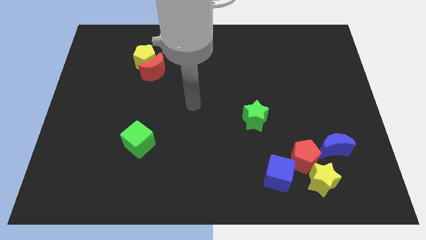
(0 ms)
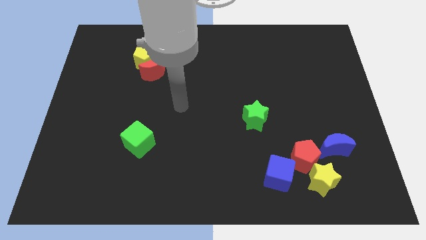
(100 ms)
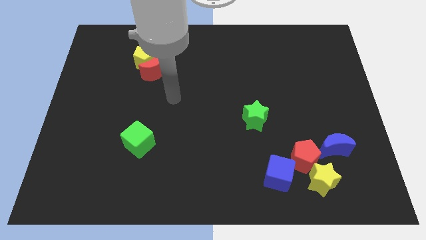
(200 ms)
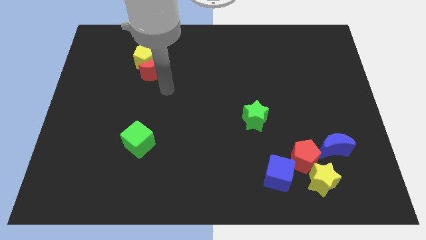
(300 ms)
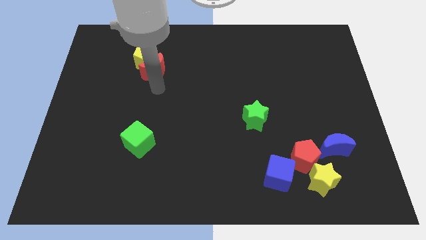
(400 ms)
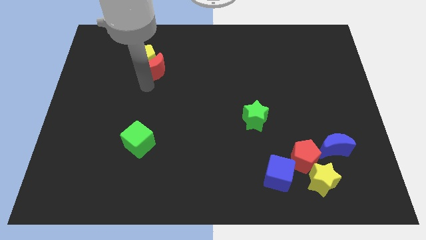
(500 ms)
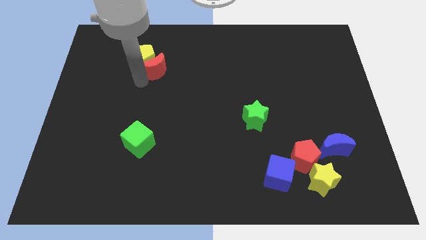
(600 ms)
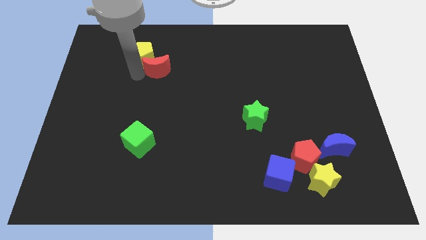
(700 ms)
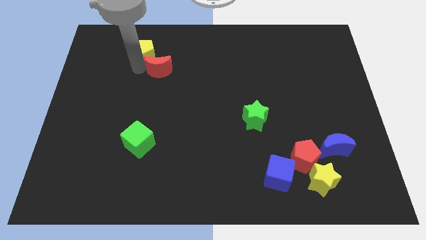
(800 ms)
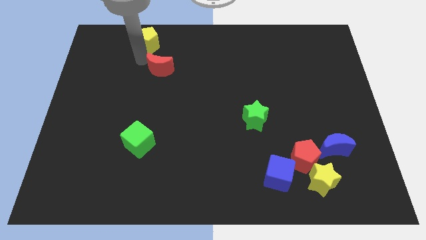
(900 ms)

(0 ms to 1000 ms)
move the red moon away from the yellow pentagon

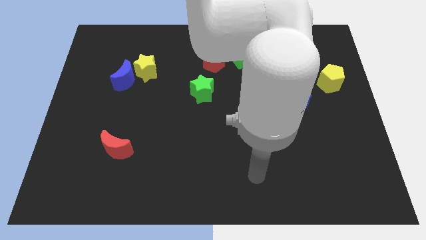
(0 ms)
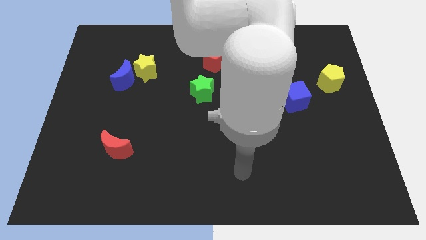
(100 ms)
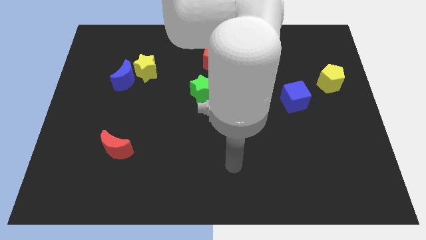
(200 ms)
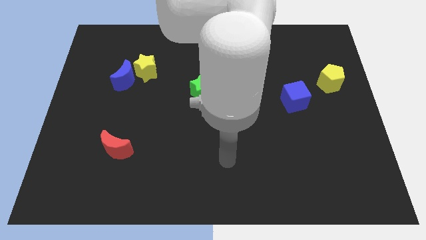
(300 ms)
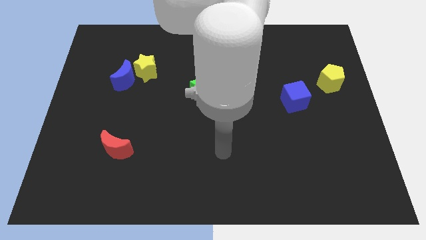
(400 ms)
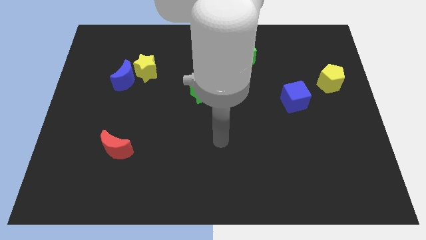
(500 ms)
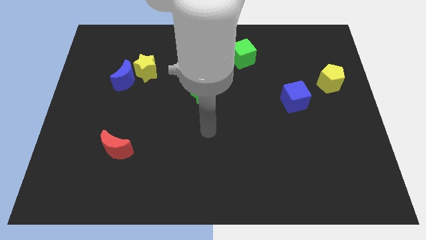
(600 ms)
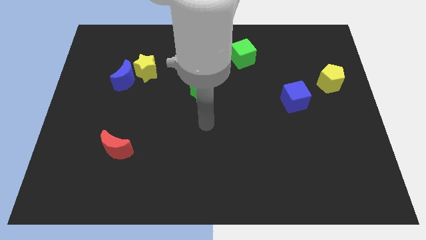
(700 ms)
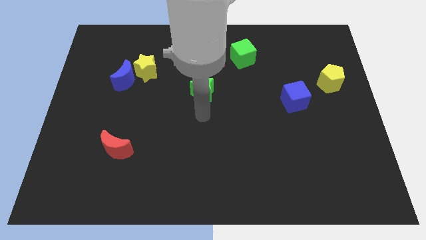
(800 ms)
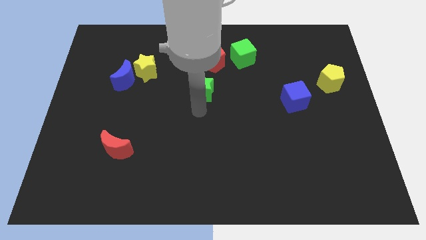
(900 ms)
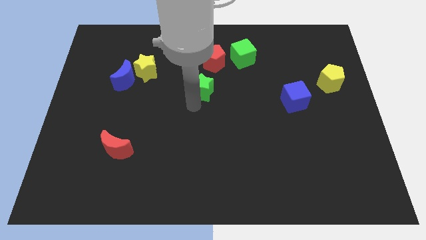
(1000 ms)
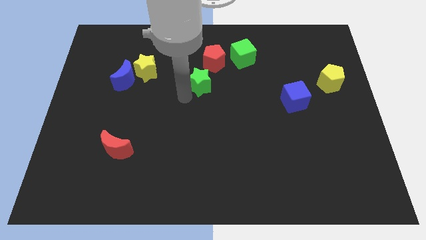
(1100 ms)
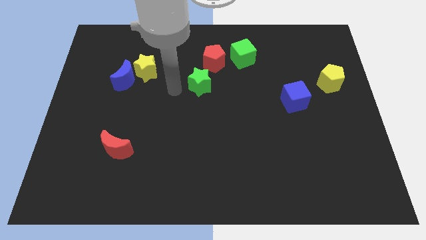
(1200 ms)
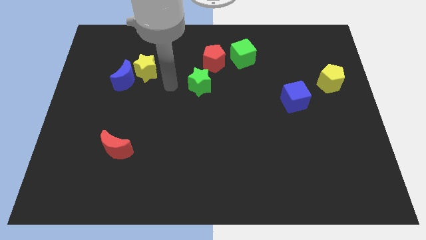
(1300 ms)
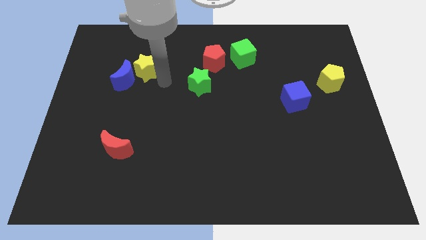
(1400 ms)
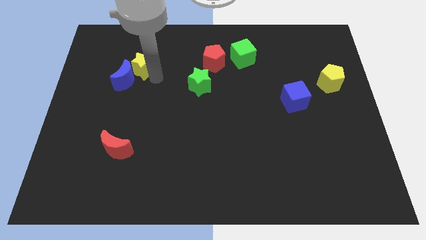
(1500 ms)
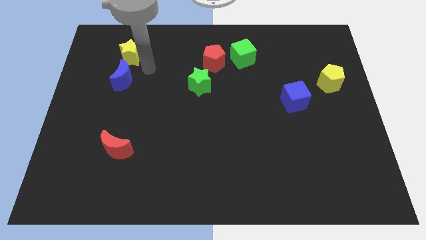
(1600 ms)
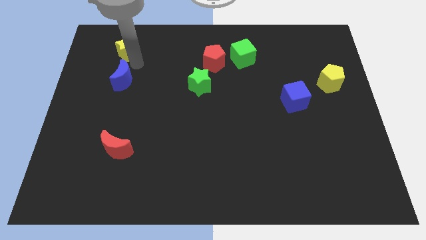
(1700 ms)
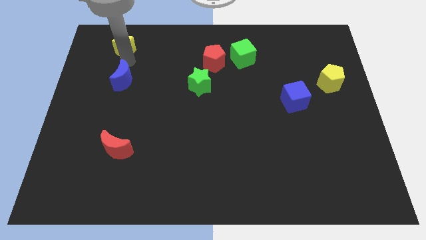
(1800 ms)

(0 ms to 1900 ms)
pull the blue moon apart from the yellow star

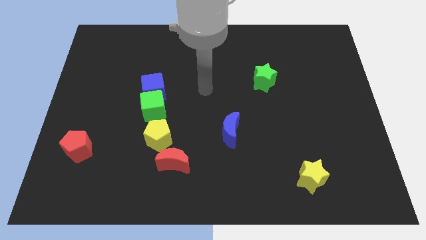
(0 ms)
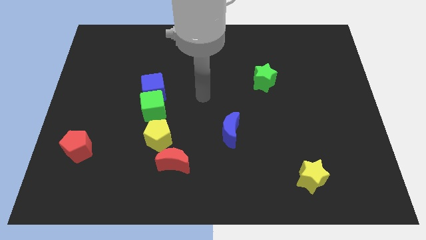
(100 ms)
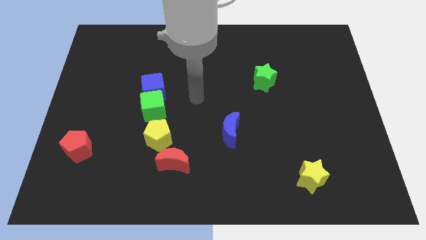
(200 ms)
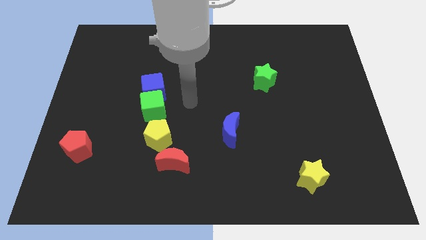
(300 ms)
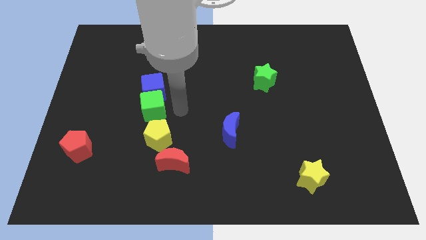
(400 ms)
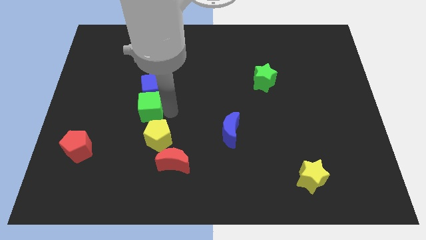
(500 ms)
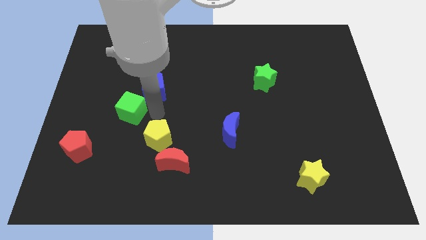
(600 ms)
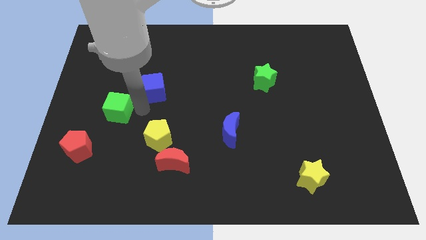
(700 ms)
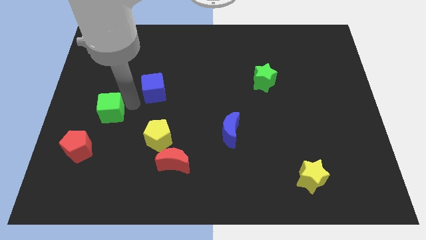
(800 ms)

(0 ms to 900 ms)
pull the blue cube apart from the green cube

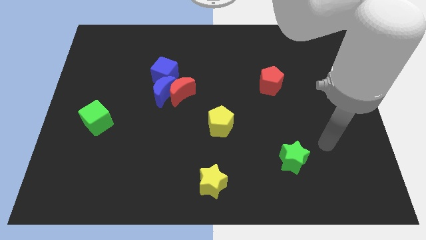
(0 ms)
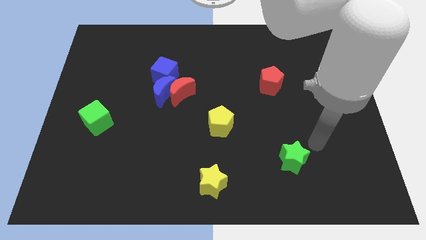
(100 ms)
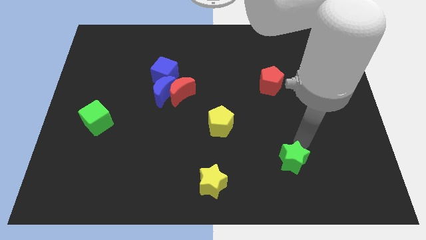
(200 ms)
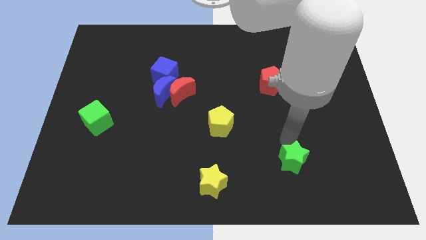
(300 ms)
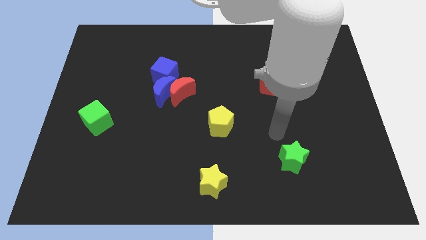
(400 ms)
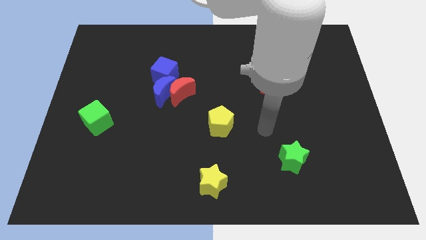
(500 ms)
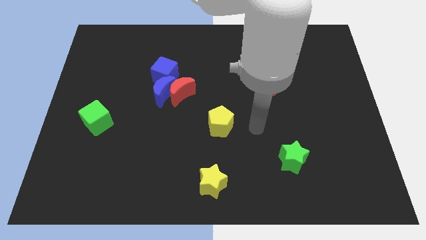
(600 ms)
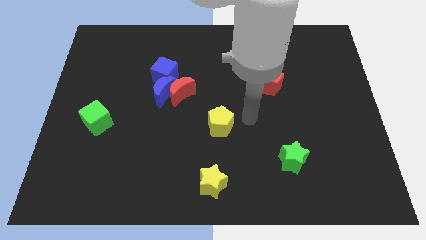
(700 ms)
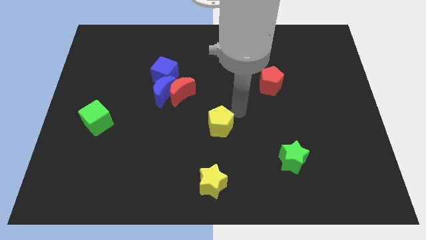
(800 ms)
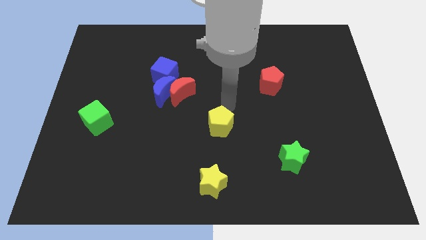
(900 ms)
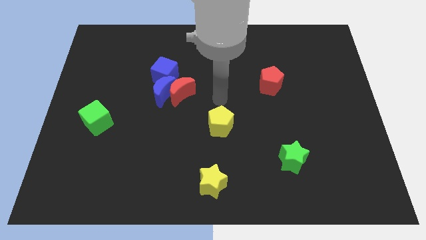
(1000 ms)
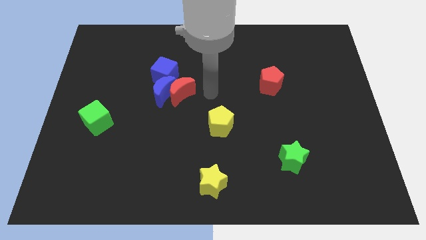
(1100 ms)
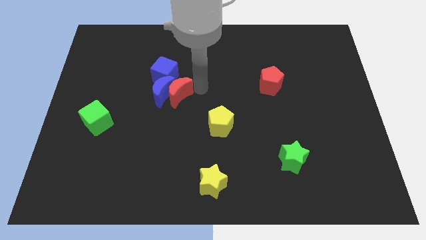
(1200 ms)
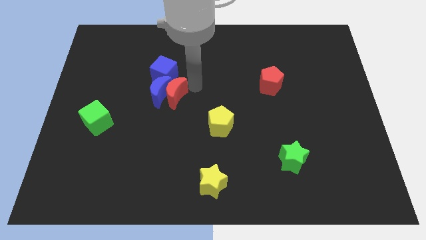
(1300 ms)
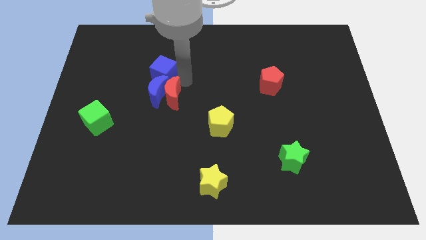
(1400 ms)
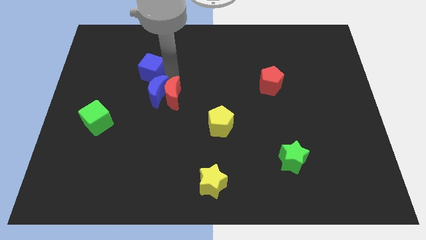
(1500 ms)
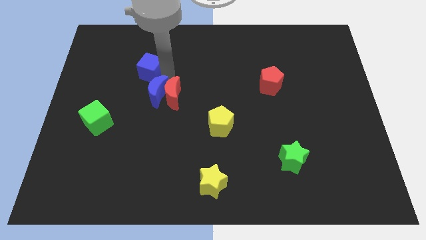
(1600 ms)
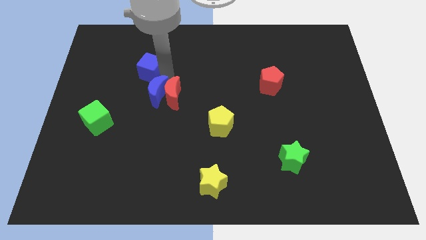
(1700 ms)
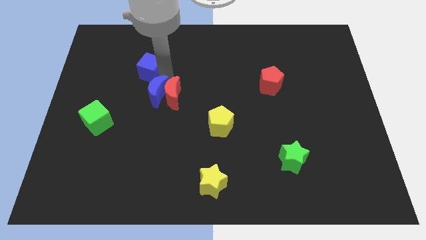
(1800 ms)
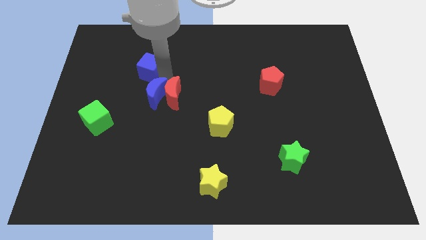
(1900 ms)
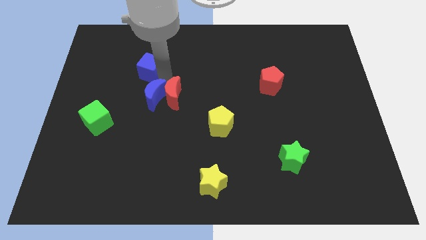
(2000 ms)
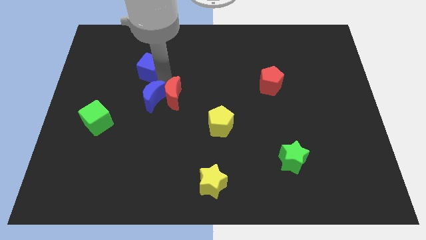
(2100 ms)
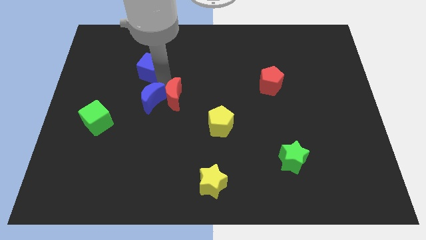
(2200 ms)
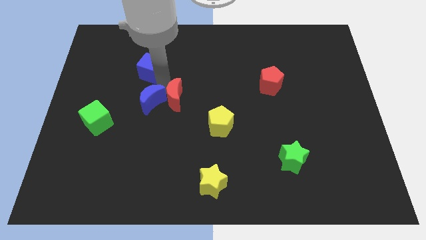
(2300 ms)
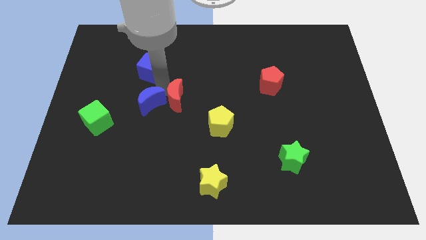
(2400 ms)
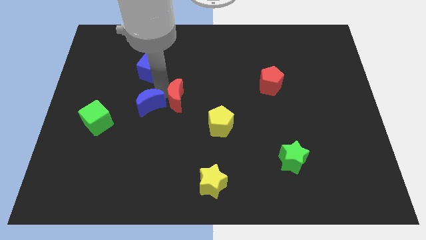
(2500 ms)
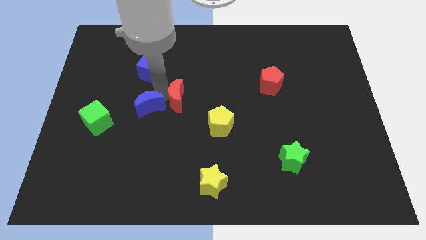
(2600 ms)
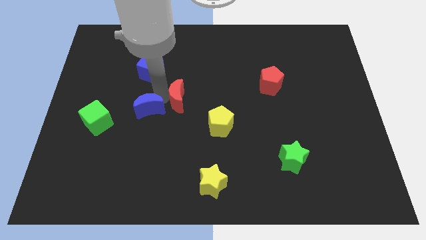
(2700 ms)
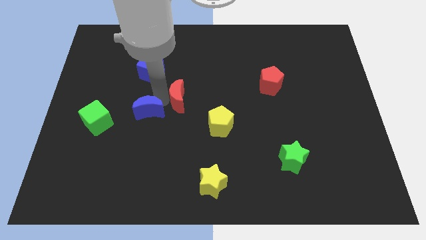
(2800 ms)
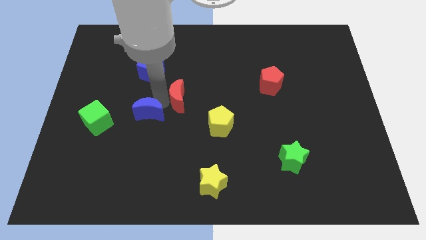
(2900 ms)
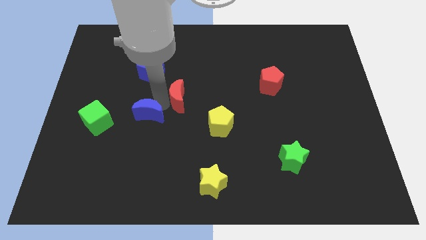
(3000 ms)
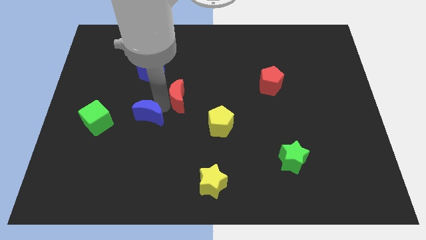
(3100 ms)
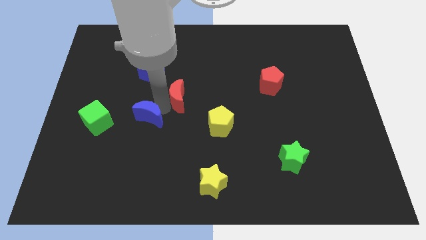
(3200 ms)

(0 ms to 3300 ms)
move the blue moon away from the red moon and blue cube

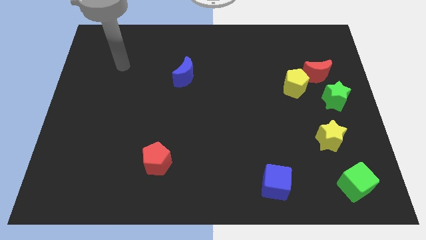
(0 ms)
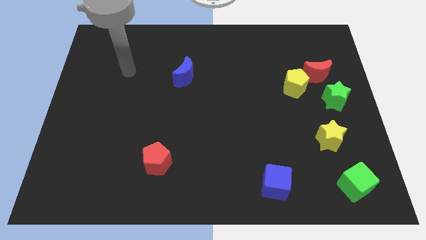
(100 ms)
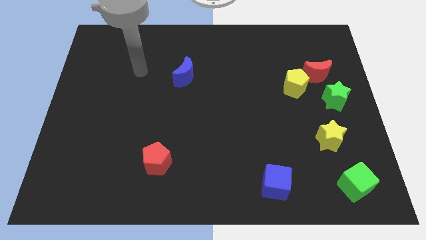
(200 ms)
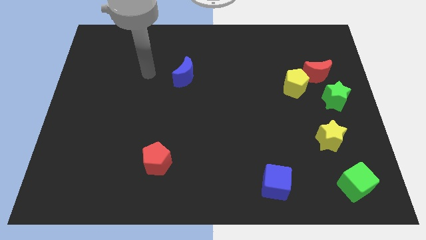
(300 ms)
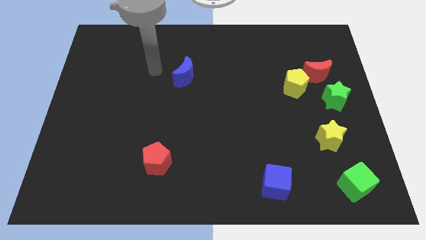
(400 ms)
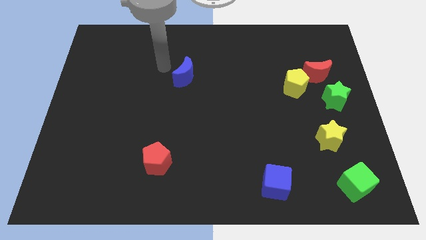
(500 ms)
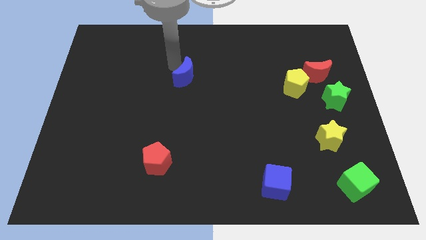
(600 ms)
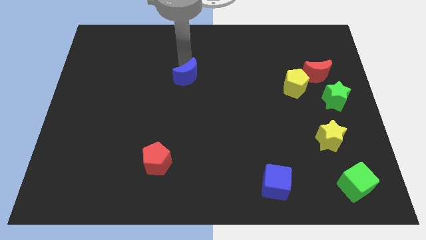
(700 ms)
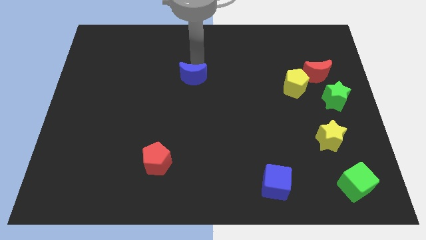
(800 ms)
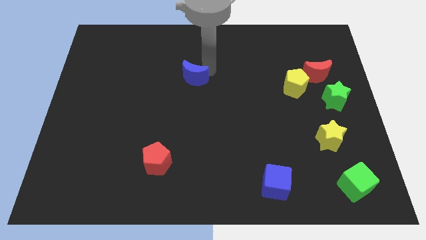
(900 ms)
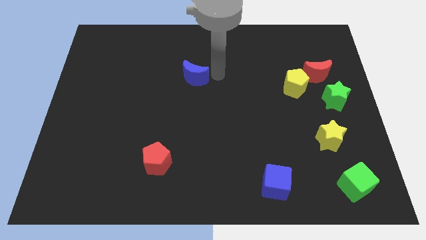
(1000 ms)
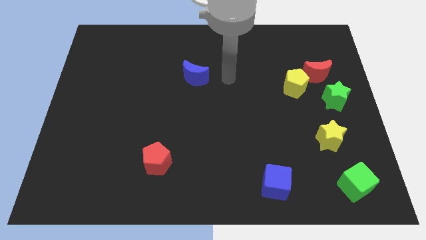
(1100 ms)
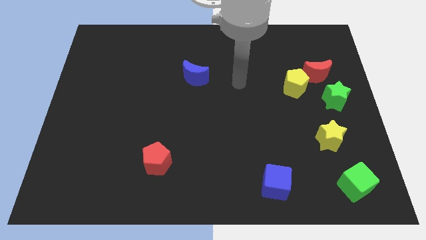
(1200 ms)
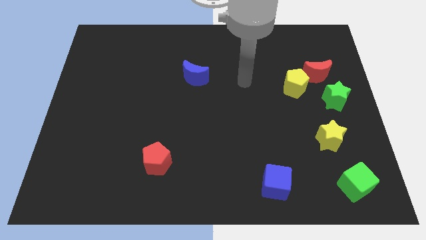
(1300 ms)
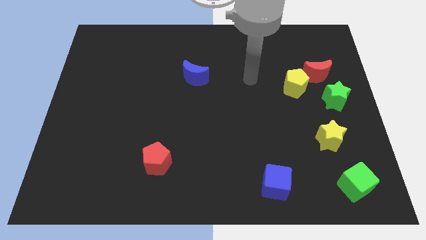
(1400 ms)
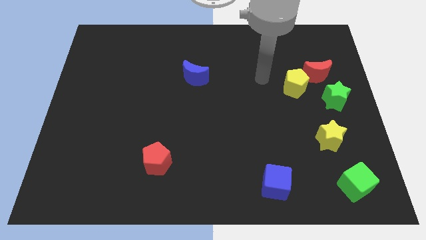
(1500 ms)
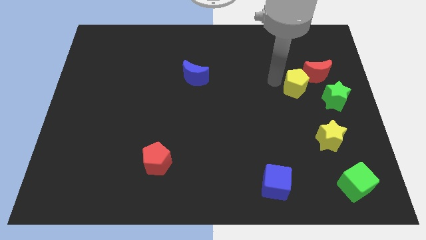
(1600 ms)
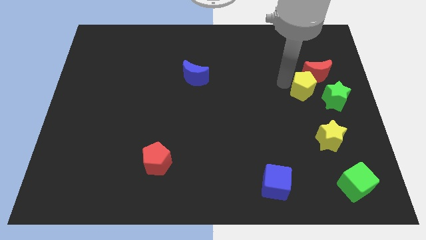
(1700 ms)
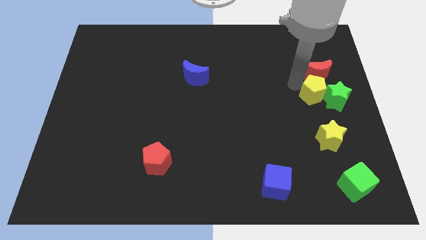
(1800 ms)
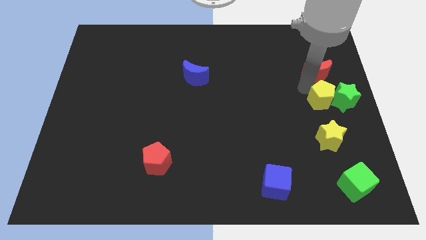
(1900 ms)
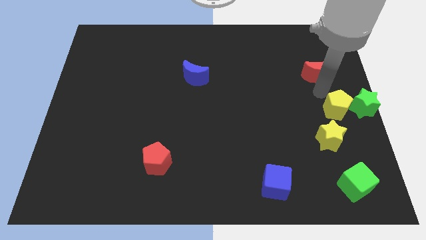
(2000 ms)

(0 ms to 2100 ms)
move the red moon away from the yellow pentagon and green star

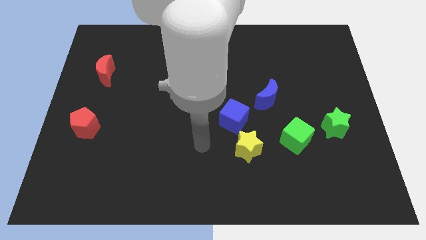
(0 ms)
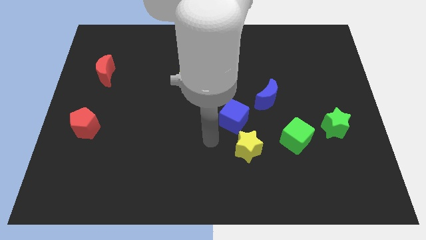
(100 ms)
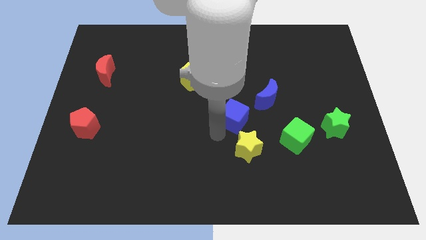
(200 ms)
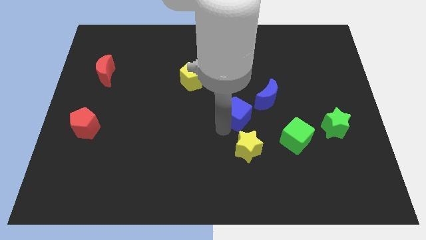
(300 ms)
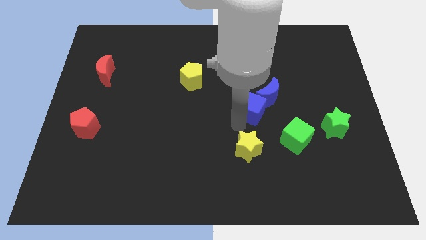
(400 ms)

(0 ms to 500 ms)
pull the yellow star apart from the blue cube
